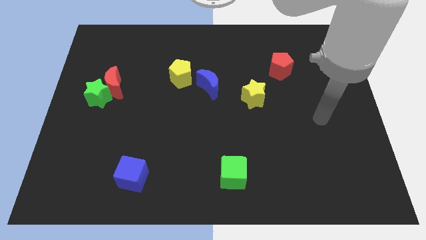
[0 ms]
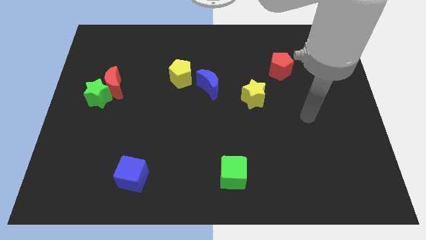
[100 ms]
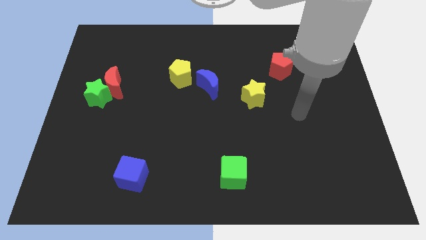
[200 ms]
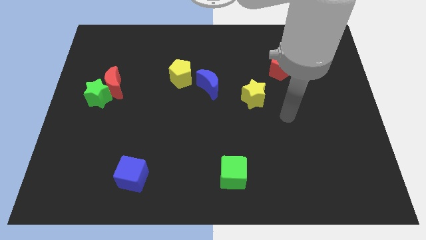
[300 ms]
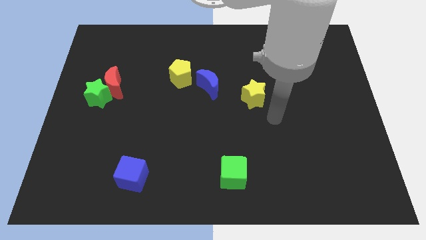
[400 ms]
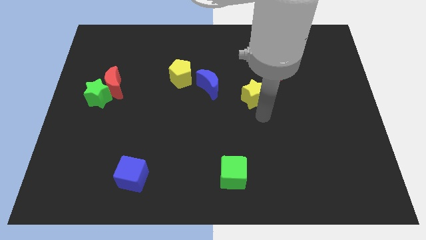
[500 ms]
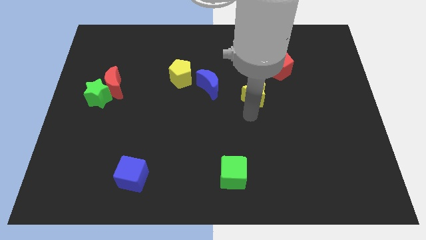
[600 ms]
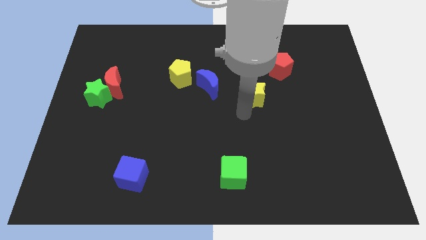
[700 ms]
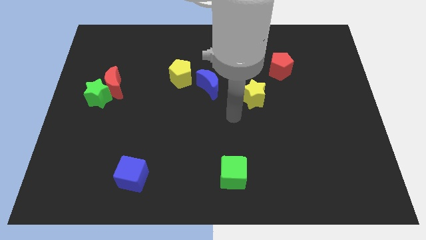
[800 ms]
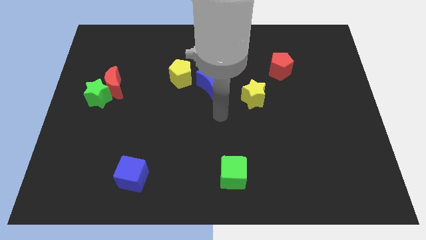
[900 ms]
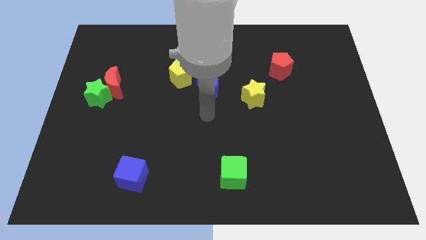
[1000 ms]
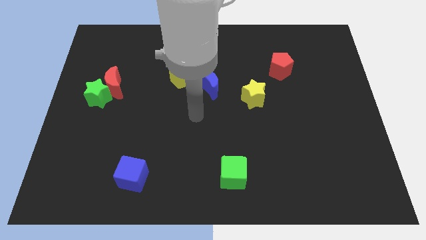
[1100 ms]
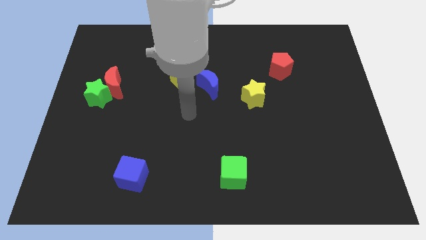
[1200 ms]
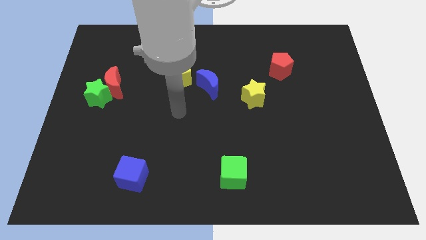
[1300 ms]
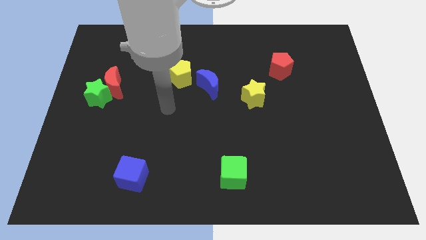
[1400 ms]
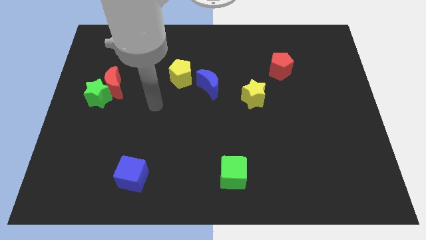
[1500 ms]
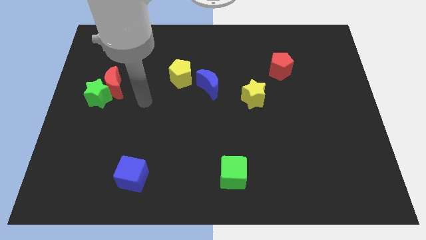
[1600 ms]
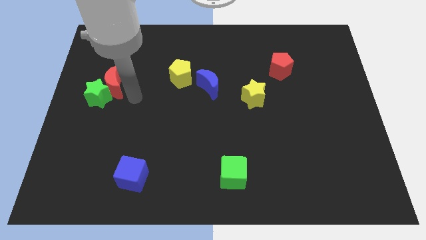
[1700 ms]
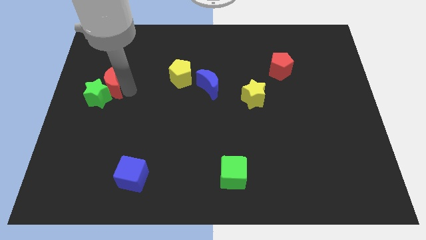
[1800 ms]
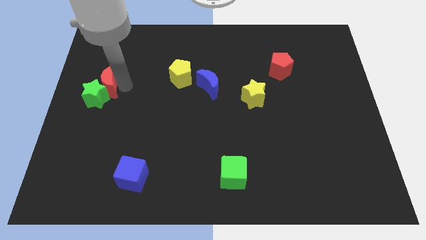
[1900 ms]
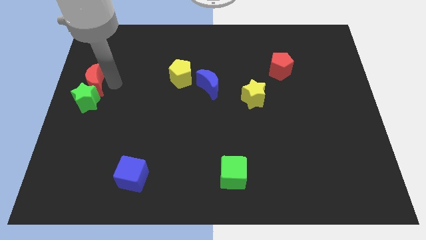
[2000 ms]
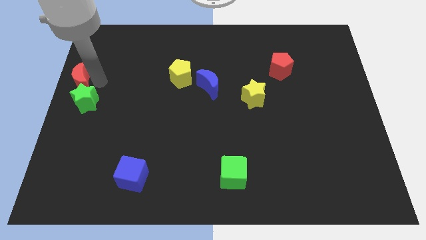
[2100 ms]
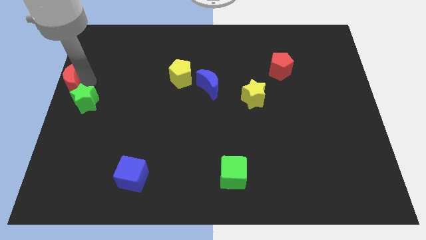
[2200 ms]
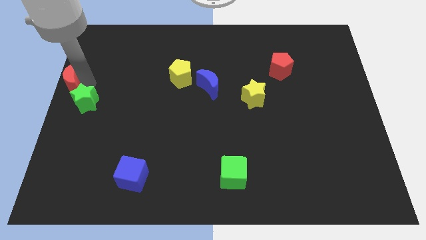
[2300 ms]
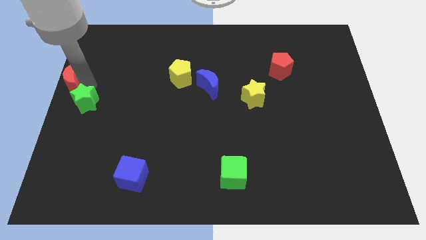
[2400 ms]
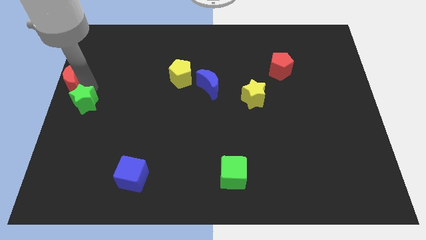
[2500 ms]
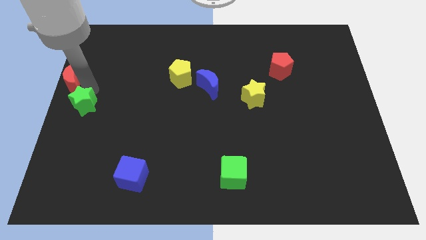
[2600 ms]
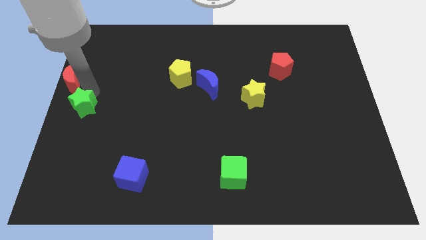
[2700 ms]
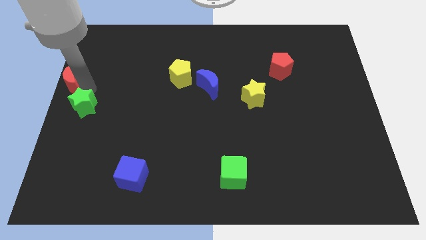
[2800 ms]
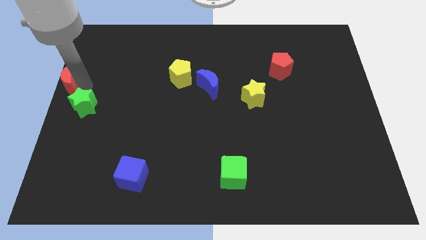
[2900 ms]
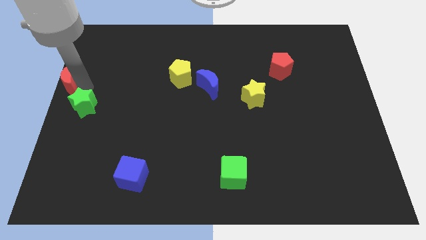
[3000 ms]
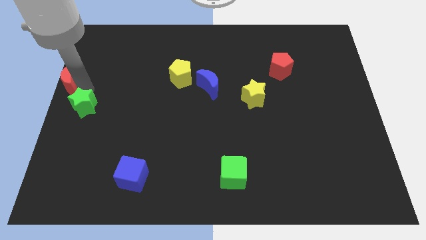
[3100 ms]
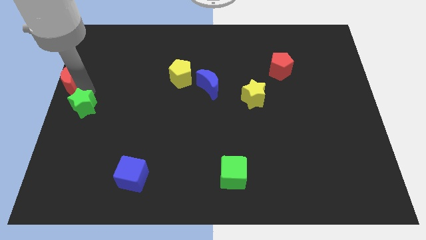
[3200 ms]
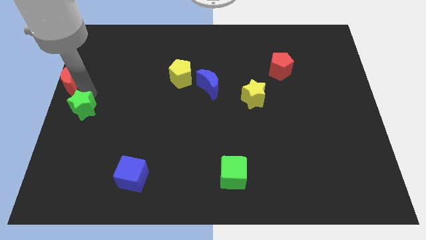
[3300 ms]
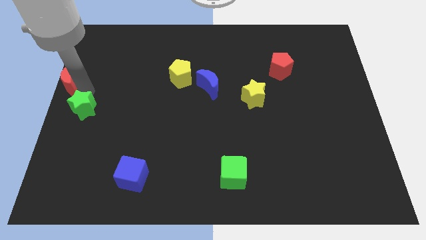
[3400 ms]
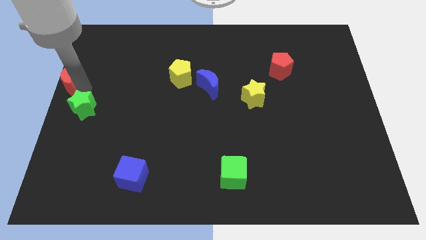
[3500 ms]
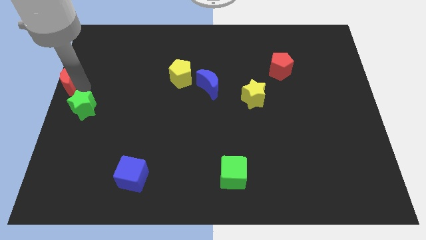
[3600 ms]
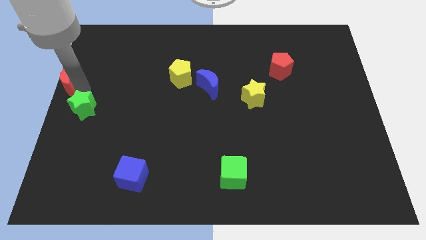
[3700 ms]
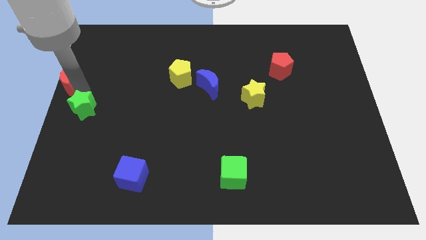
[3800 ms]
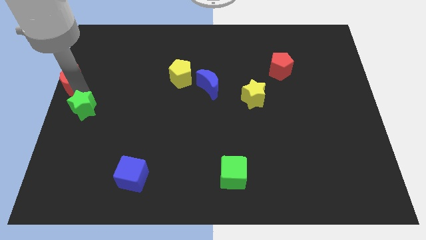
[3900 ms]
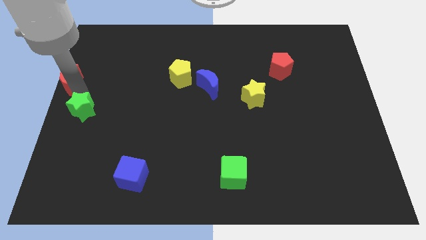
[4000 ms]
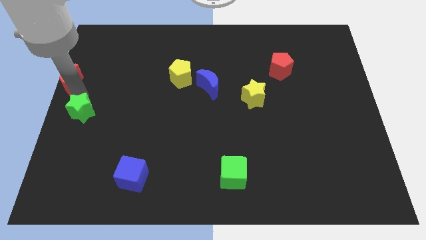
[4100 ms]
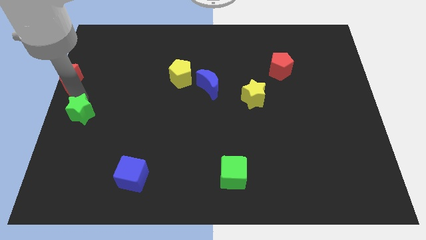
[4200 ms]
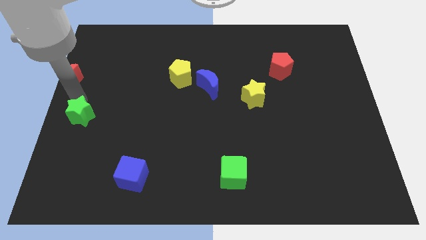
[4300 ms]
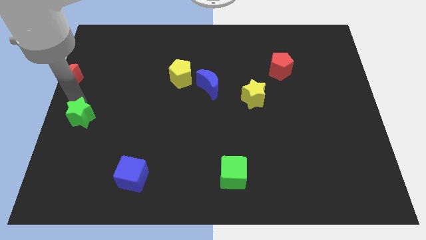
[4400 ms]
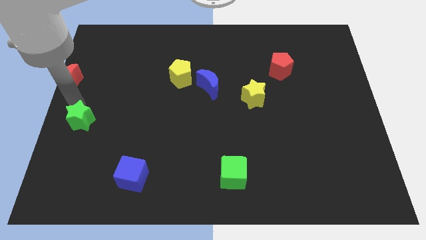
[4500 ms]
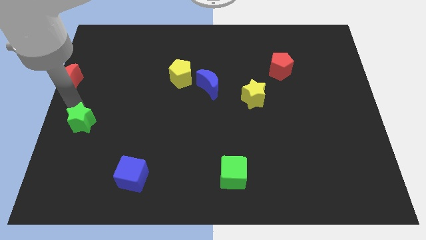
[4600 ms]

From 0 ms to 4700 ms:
slide the green star downwards slightly

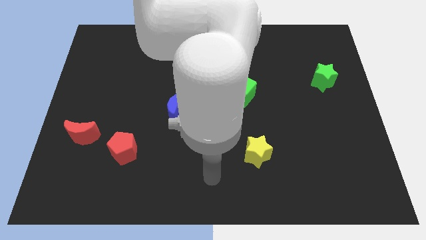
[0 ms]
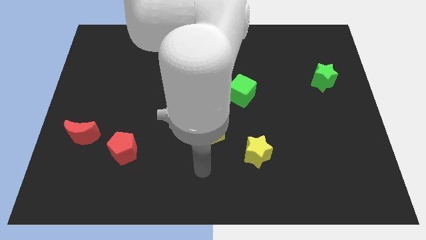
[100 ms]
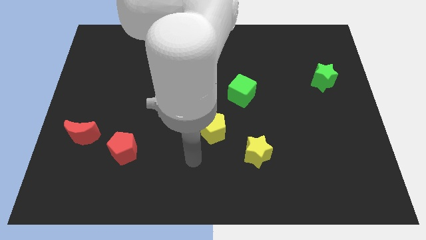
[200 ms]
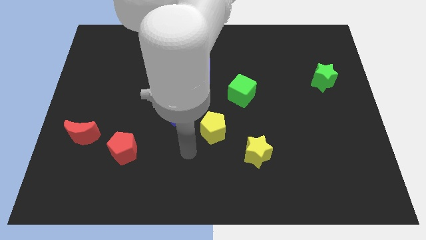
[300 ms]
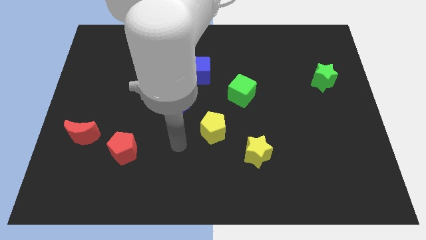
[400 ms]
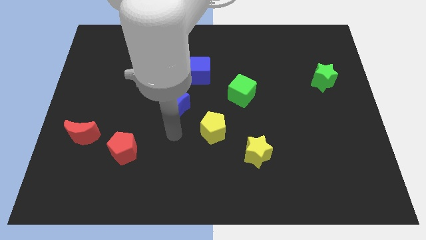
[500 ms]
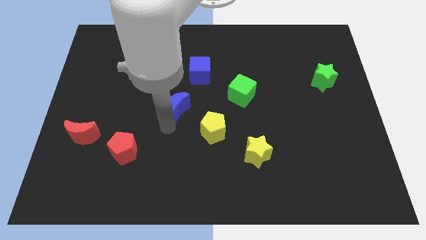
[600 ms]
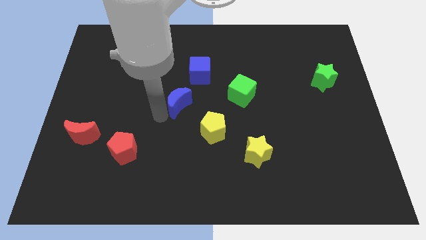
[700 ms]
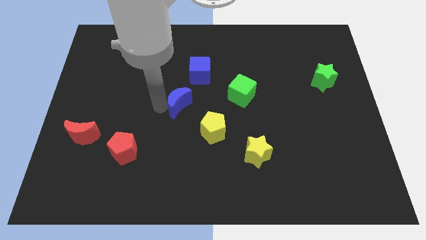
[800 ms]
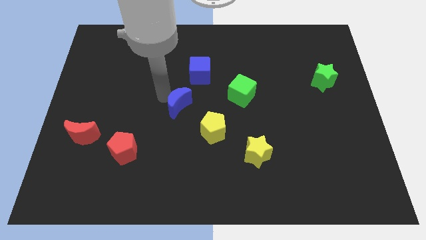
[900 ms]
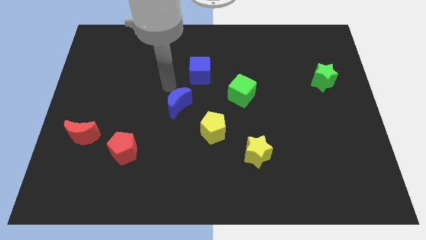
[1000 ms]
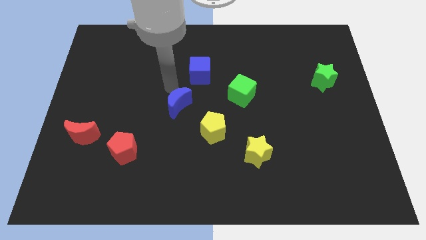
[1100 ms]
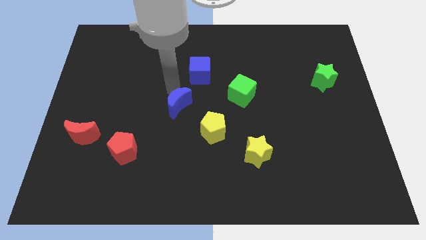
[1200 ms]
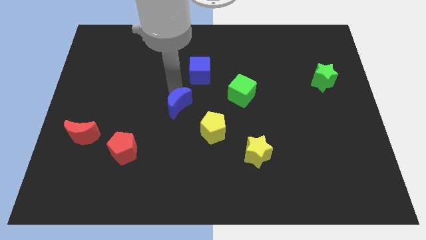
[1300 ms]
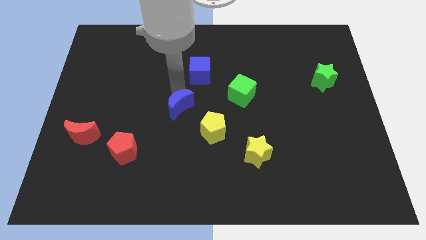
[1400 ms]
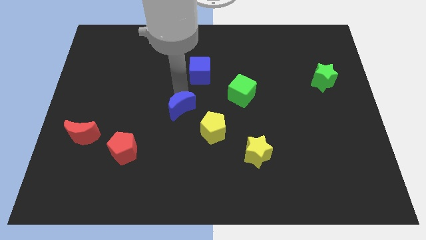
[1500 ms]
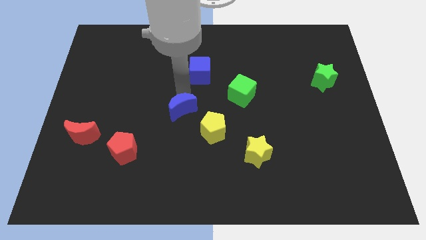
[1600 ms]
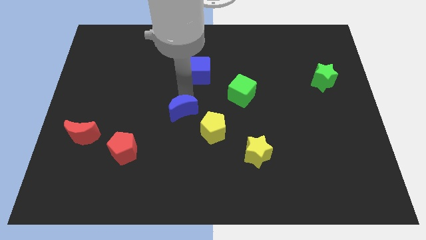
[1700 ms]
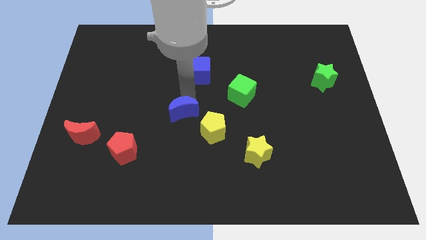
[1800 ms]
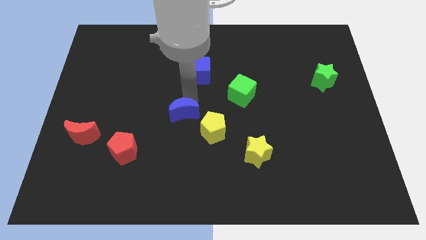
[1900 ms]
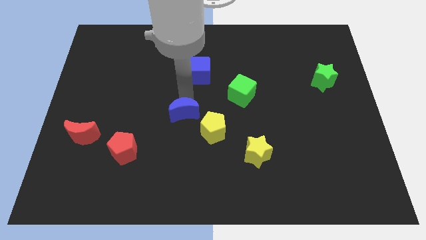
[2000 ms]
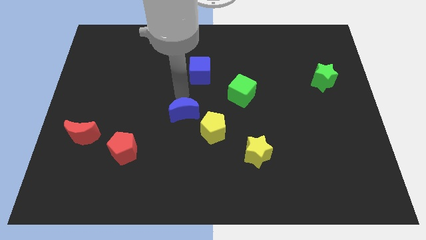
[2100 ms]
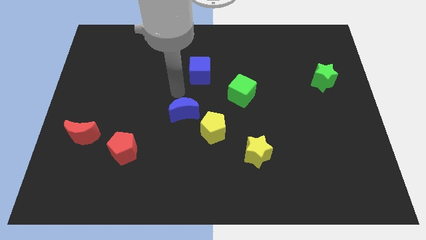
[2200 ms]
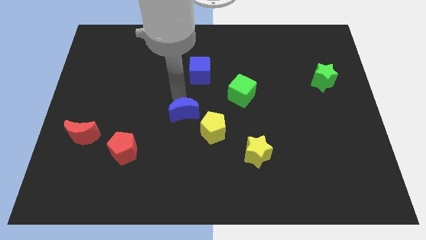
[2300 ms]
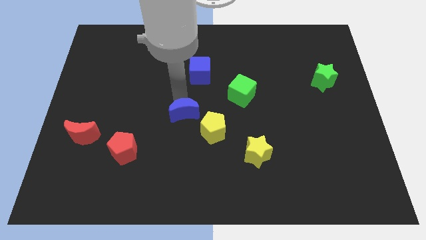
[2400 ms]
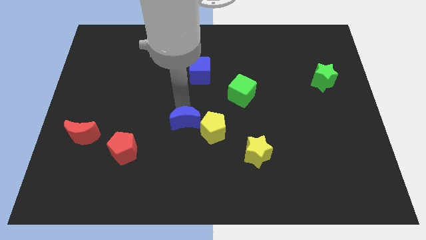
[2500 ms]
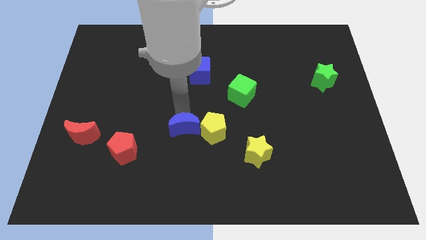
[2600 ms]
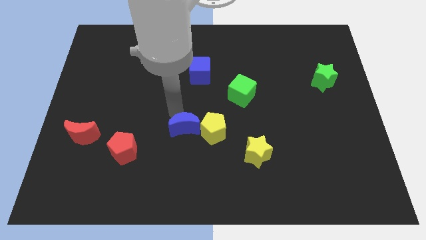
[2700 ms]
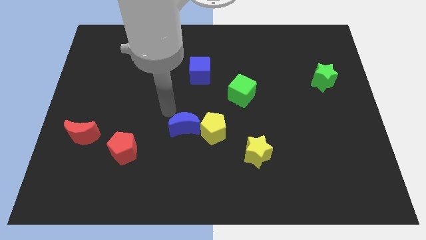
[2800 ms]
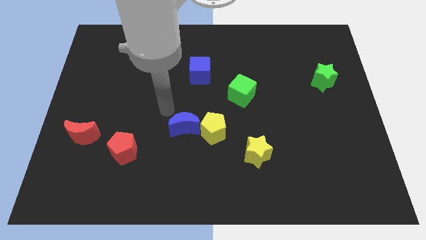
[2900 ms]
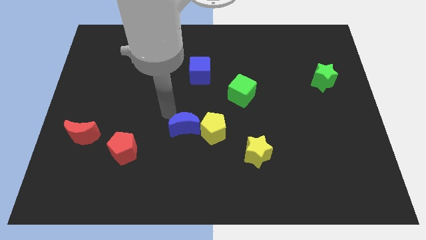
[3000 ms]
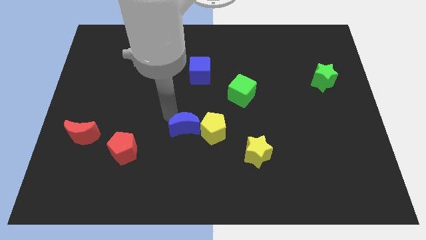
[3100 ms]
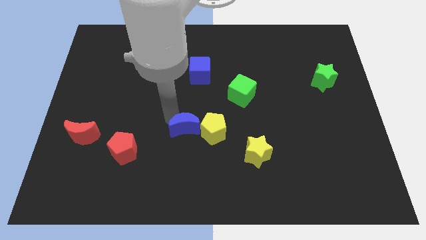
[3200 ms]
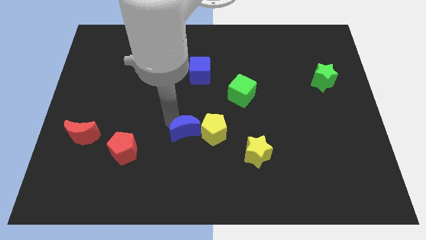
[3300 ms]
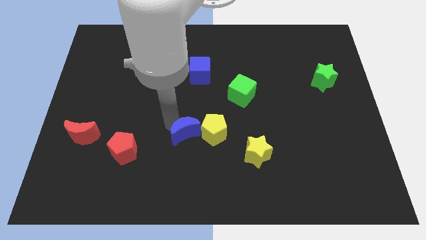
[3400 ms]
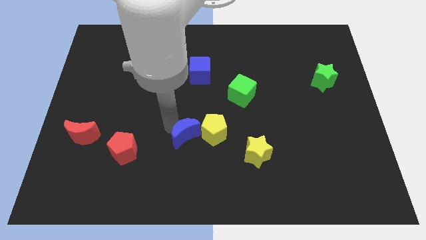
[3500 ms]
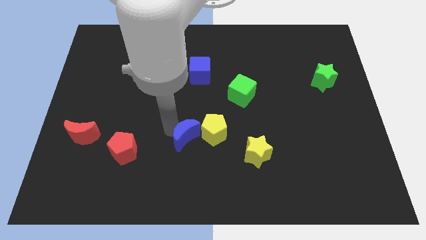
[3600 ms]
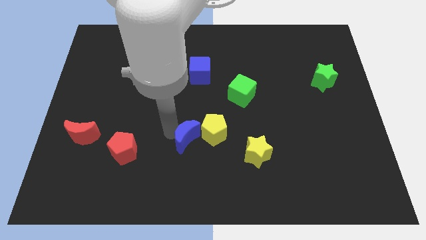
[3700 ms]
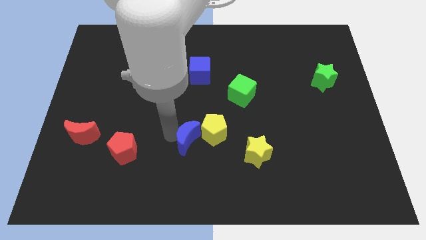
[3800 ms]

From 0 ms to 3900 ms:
move the blue moon downwards and right a bit
